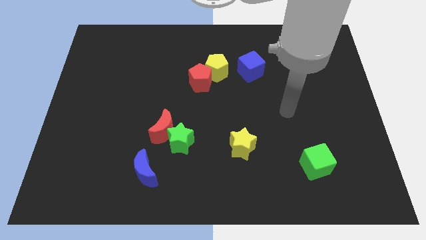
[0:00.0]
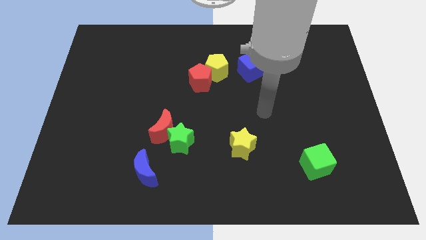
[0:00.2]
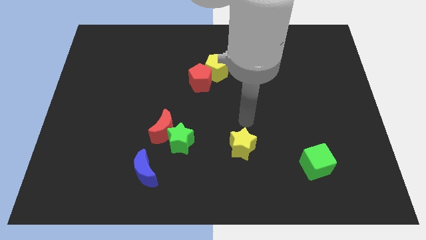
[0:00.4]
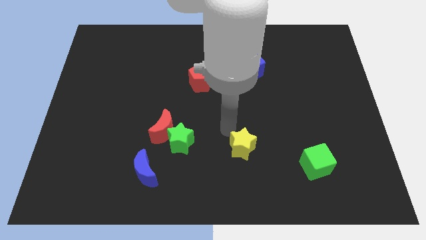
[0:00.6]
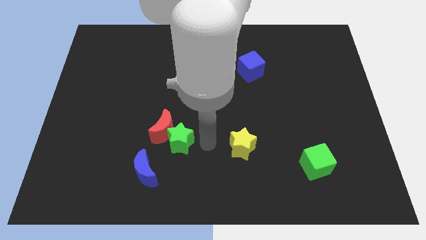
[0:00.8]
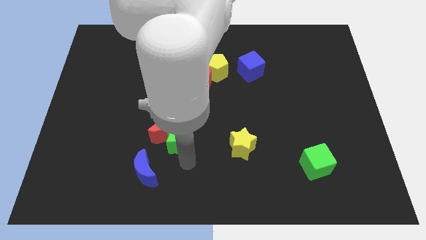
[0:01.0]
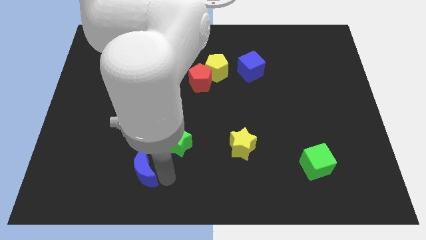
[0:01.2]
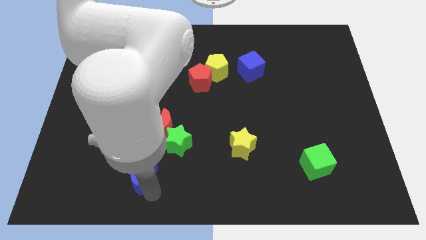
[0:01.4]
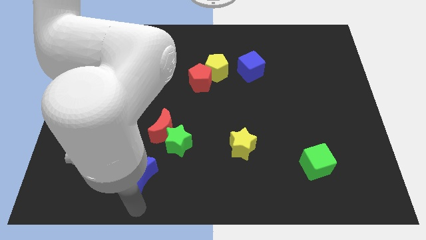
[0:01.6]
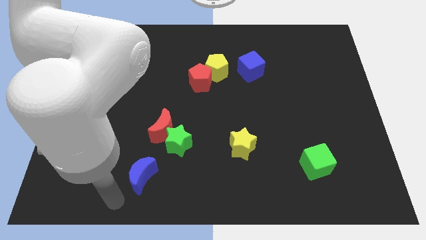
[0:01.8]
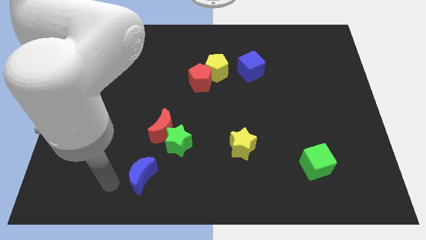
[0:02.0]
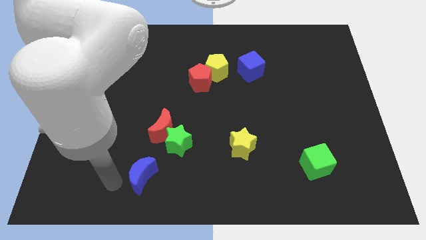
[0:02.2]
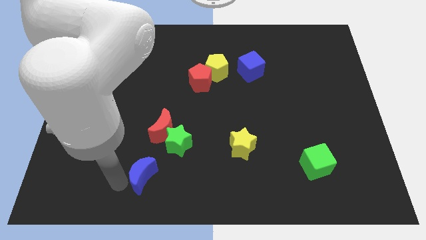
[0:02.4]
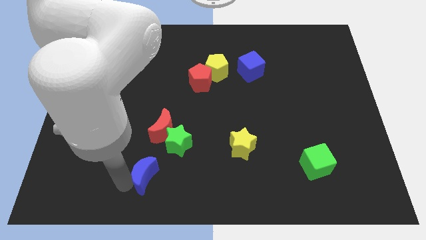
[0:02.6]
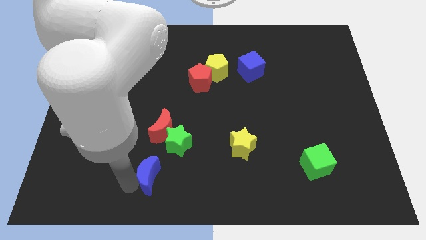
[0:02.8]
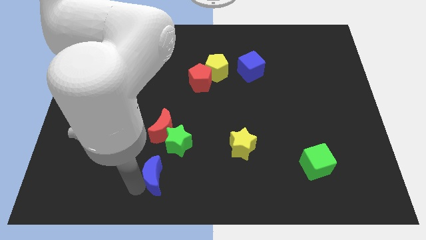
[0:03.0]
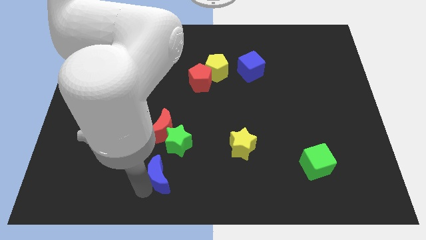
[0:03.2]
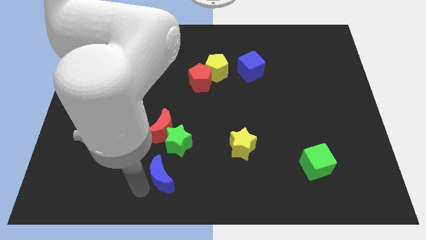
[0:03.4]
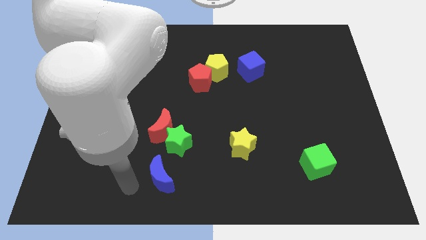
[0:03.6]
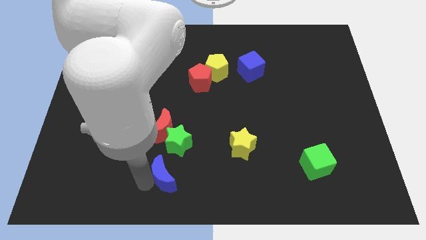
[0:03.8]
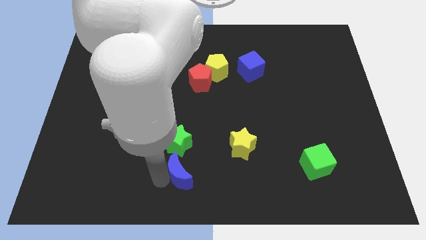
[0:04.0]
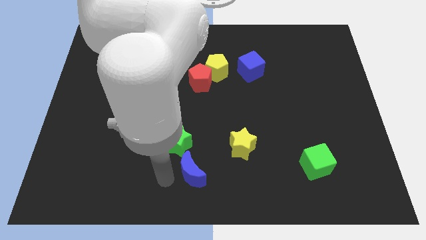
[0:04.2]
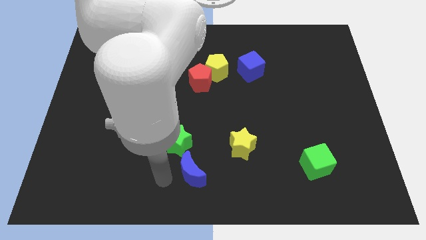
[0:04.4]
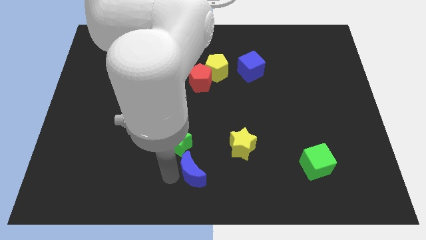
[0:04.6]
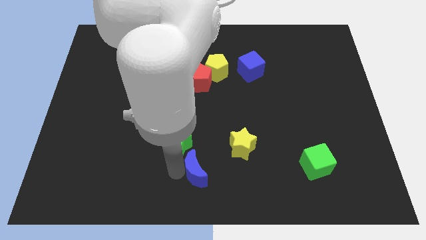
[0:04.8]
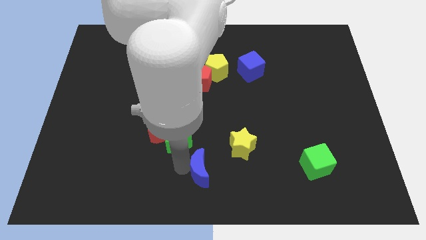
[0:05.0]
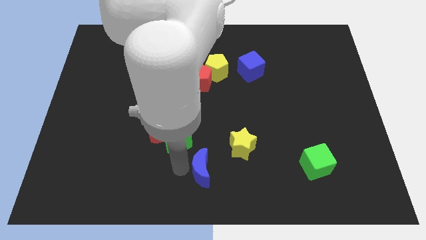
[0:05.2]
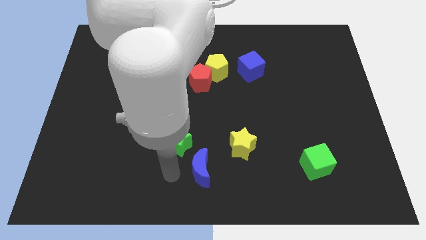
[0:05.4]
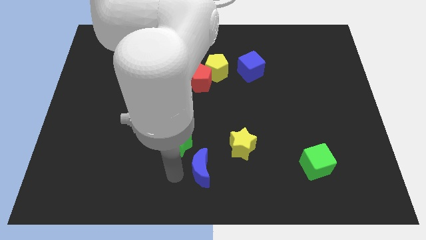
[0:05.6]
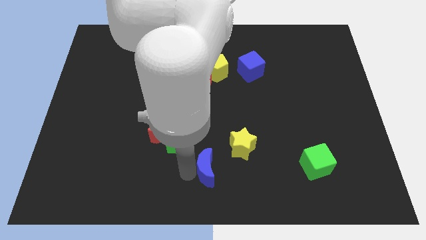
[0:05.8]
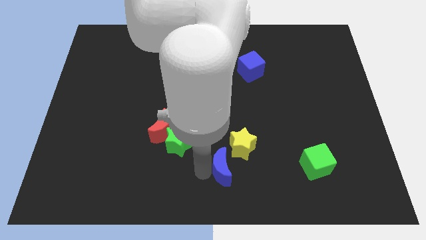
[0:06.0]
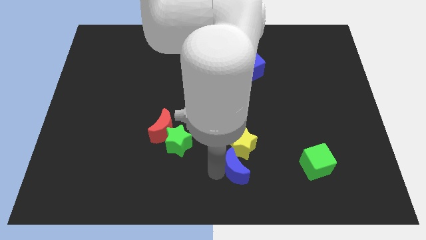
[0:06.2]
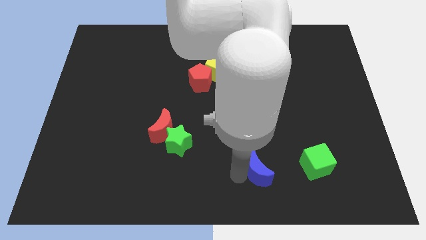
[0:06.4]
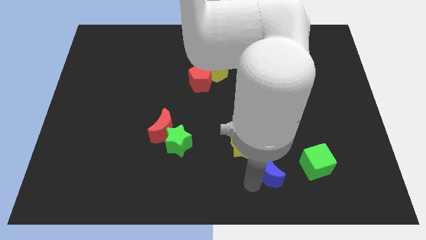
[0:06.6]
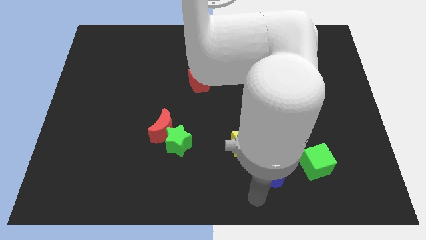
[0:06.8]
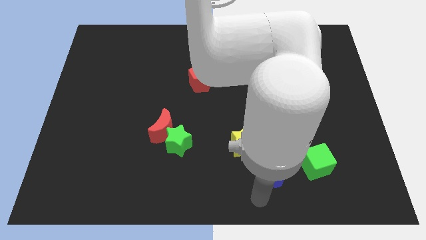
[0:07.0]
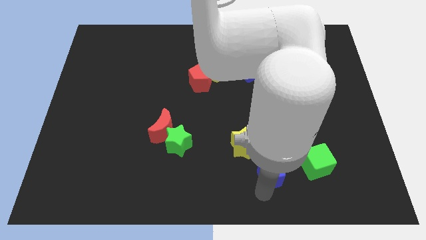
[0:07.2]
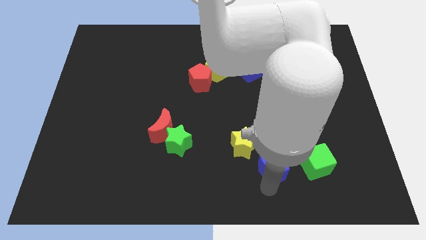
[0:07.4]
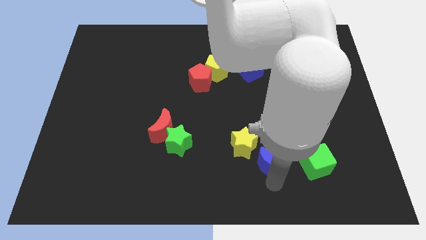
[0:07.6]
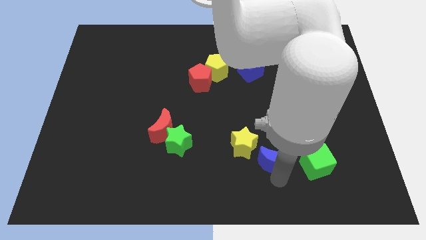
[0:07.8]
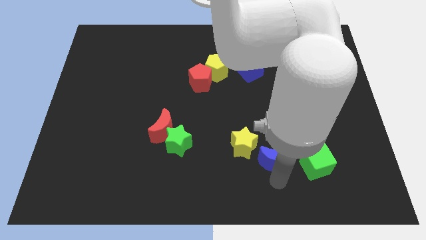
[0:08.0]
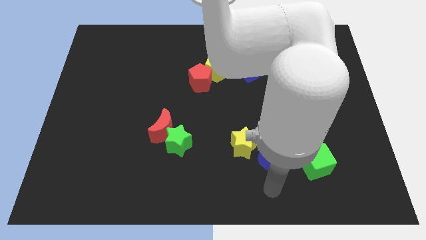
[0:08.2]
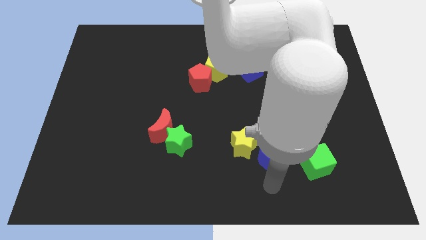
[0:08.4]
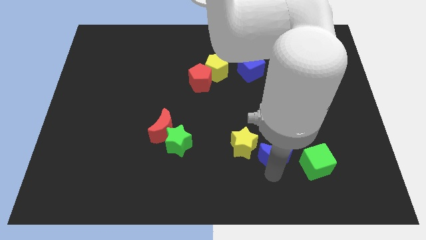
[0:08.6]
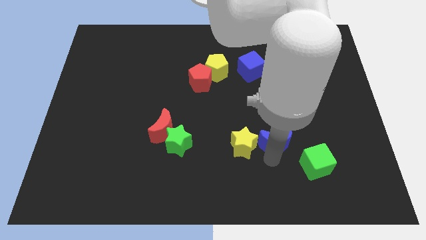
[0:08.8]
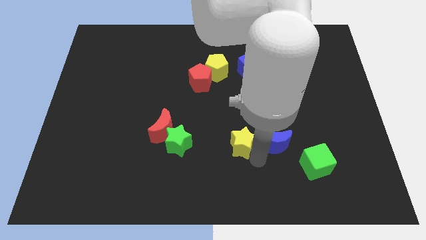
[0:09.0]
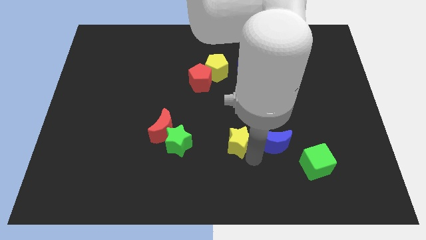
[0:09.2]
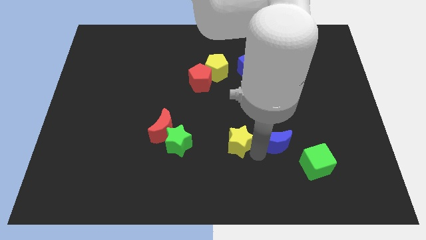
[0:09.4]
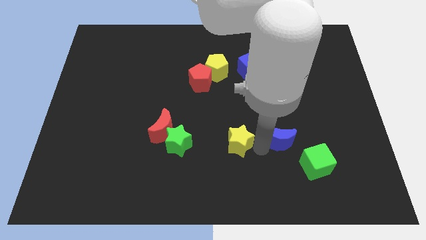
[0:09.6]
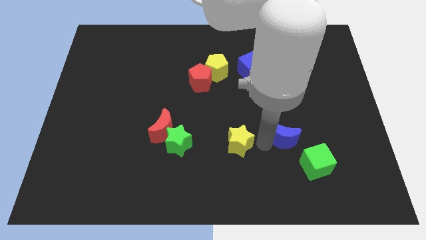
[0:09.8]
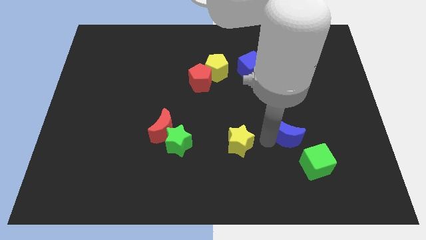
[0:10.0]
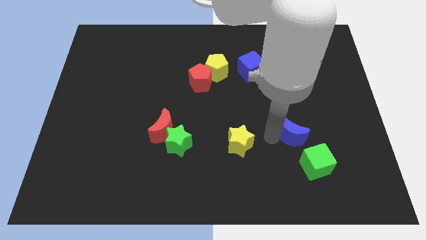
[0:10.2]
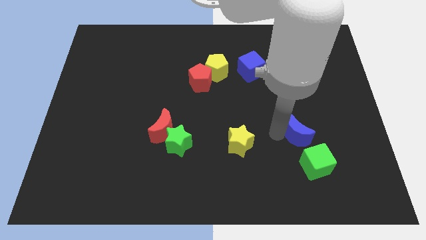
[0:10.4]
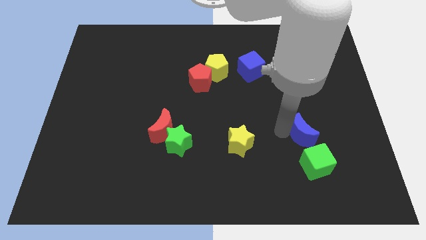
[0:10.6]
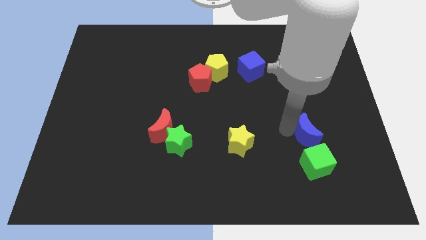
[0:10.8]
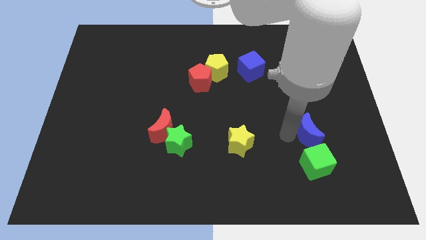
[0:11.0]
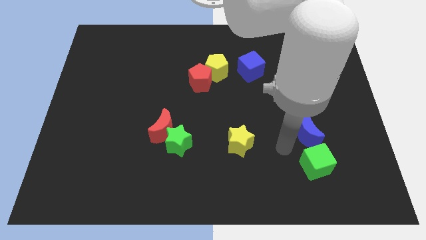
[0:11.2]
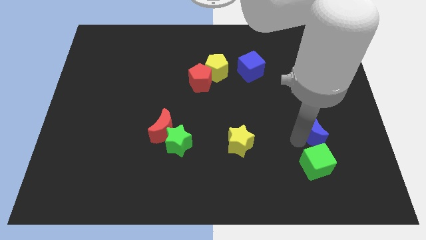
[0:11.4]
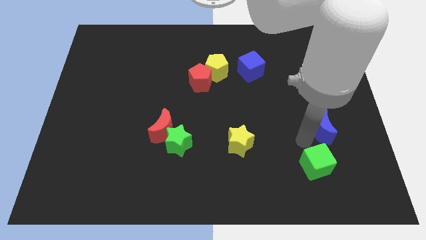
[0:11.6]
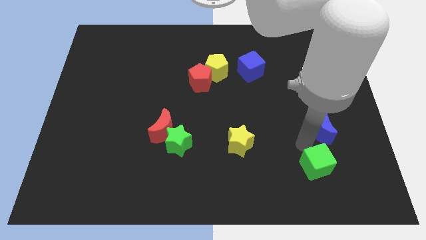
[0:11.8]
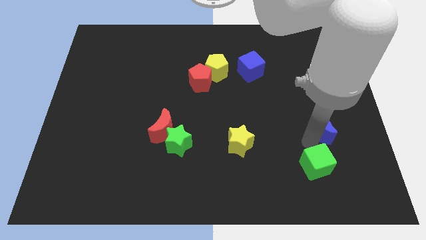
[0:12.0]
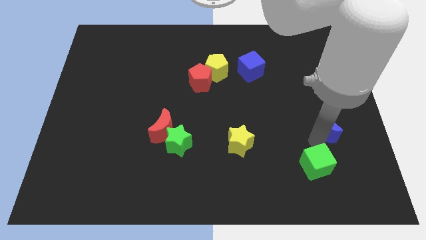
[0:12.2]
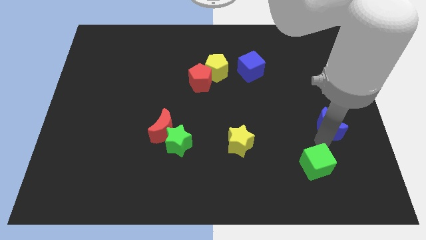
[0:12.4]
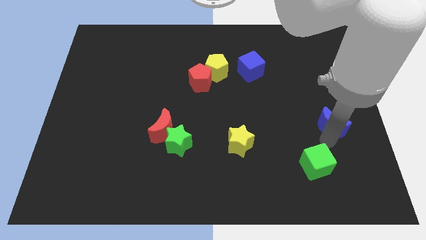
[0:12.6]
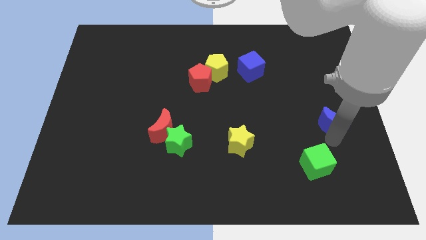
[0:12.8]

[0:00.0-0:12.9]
slide the blue moon to the right side
